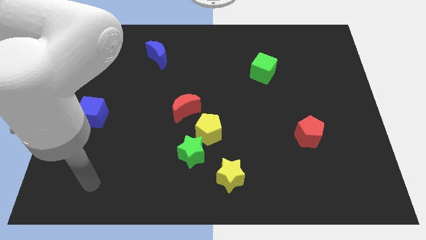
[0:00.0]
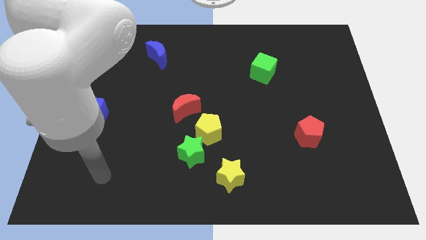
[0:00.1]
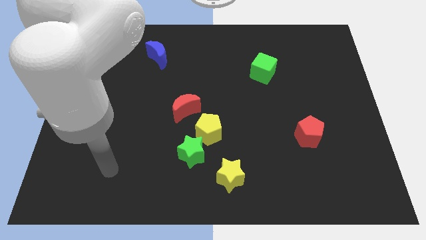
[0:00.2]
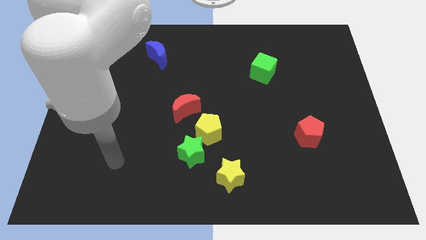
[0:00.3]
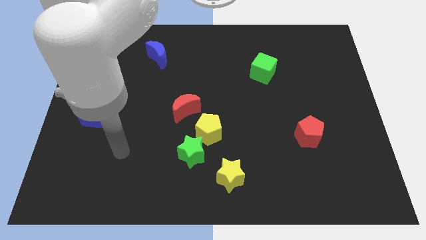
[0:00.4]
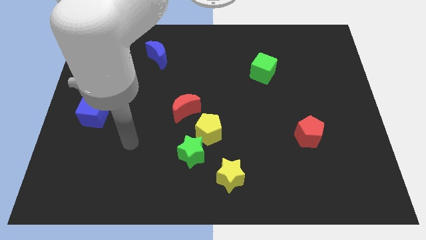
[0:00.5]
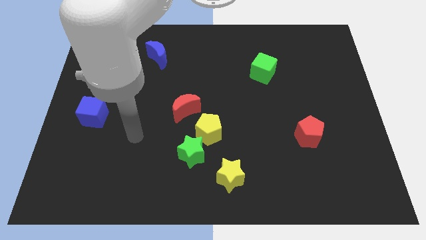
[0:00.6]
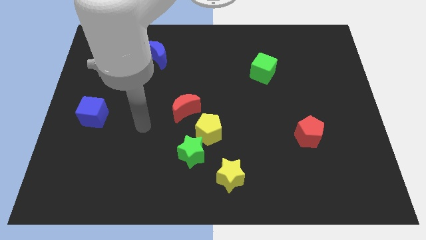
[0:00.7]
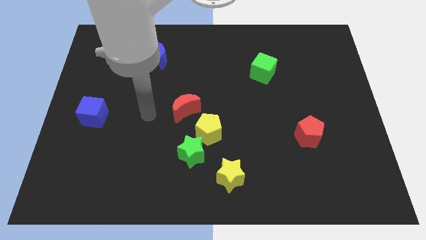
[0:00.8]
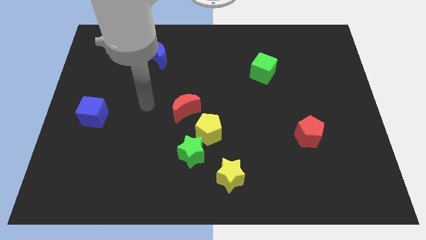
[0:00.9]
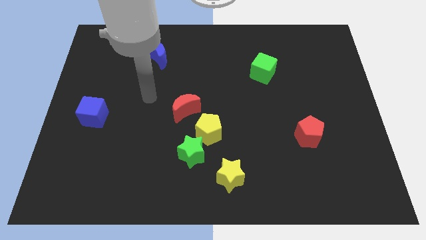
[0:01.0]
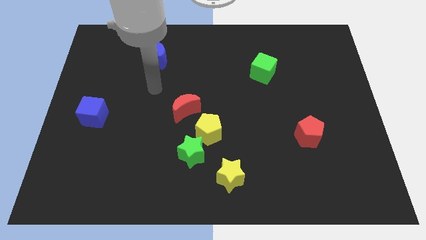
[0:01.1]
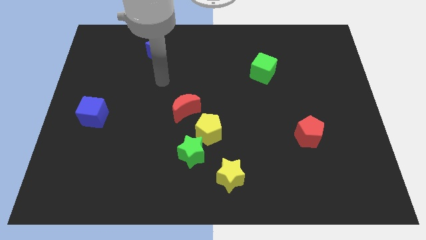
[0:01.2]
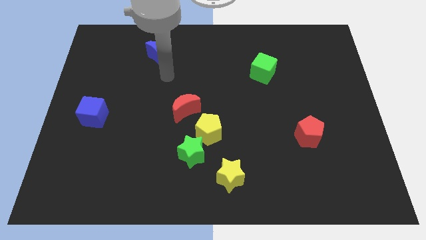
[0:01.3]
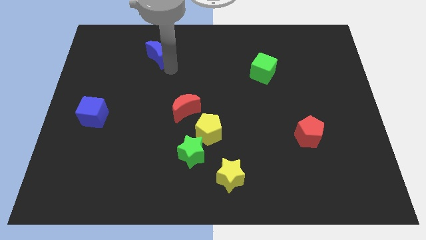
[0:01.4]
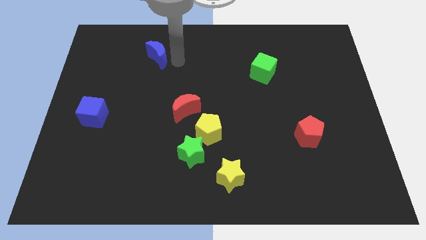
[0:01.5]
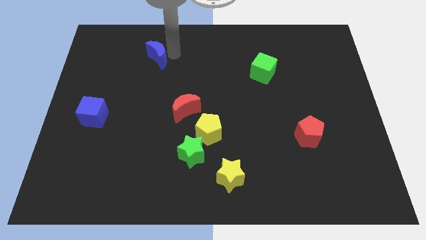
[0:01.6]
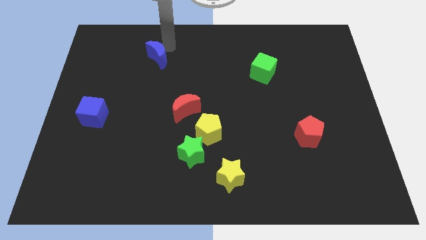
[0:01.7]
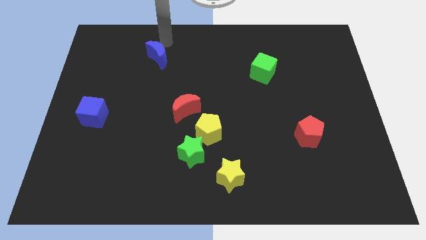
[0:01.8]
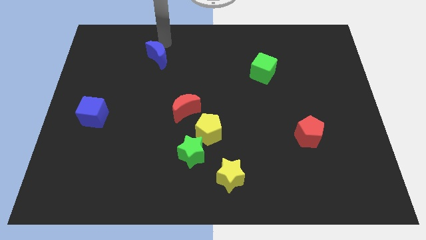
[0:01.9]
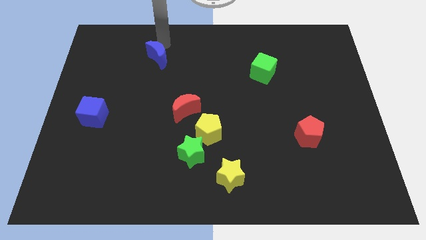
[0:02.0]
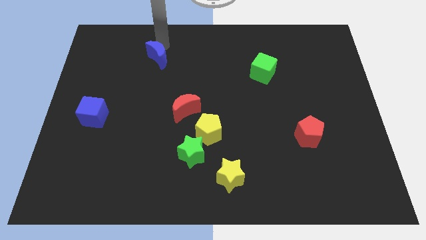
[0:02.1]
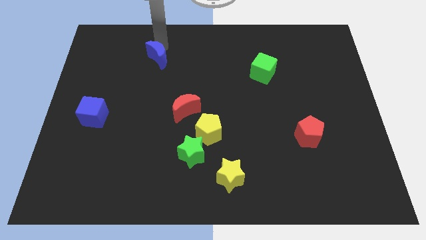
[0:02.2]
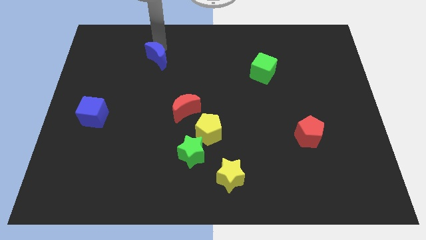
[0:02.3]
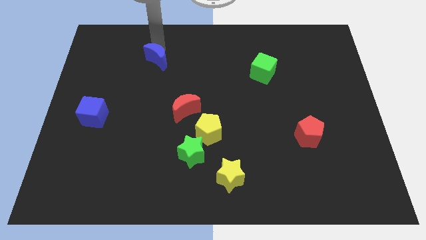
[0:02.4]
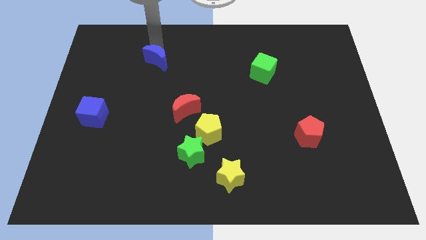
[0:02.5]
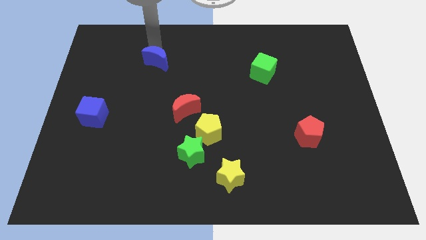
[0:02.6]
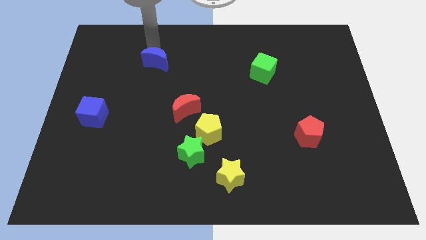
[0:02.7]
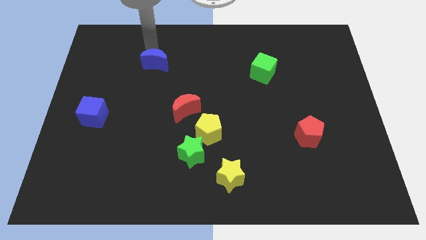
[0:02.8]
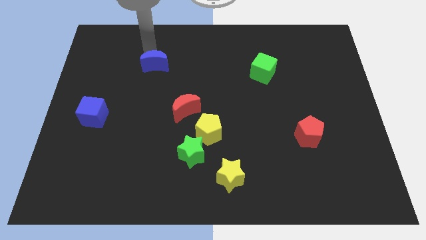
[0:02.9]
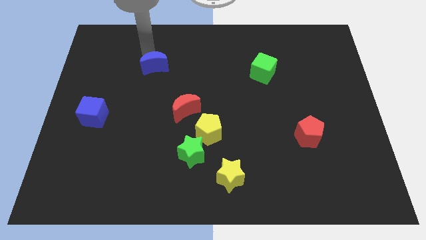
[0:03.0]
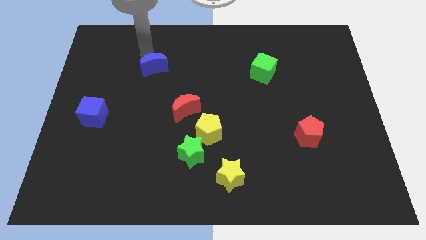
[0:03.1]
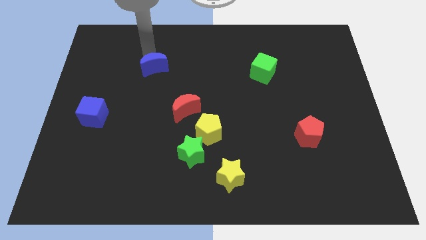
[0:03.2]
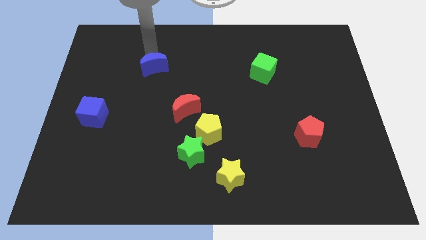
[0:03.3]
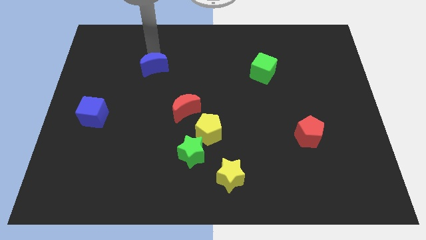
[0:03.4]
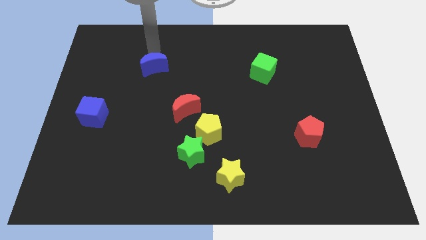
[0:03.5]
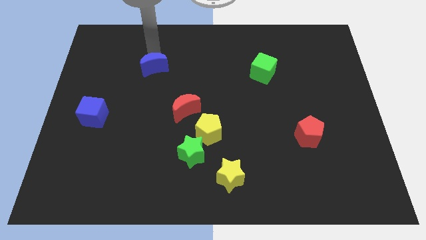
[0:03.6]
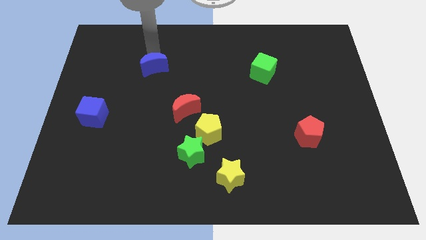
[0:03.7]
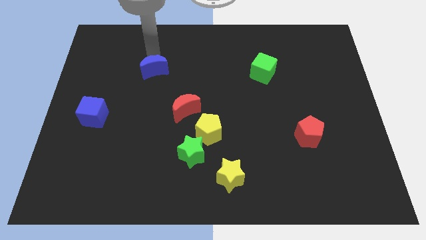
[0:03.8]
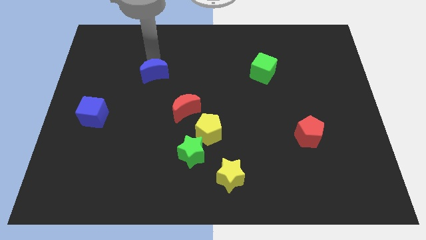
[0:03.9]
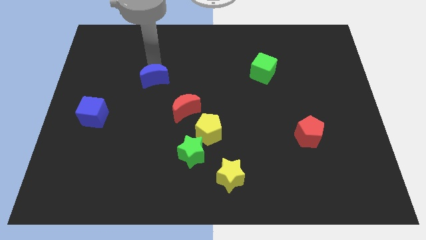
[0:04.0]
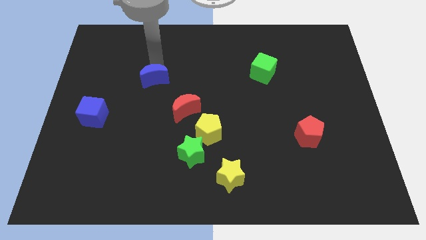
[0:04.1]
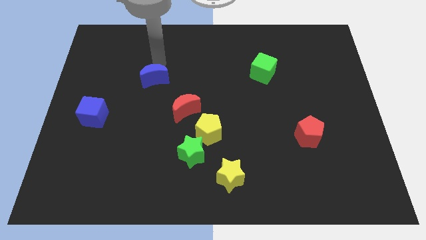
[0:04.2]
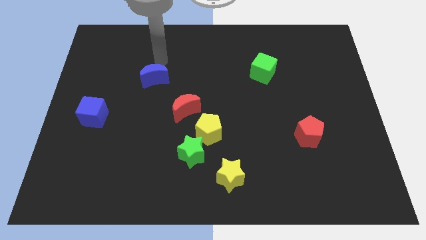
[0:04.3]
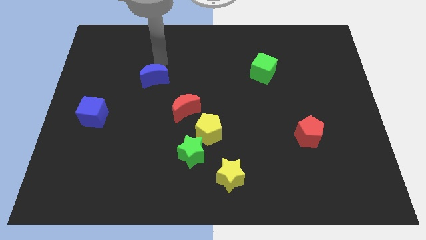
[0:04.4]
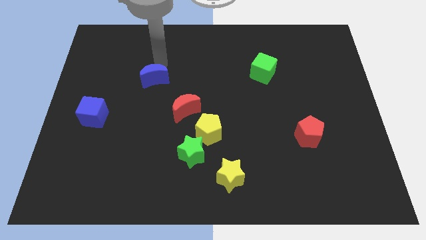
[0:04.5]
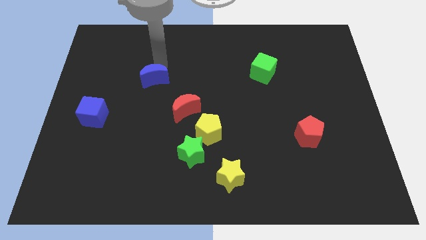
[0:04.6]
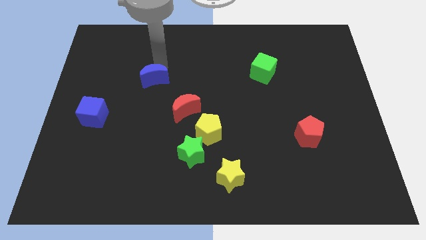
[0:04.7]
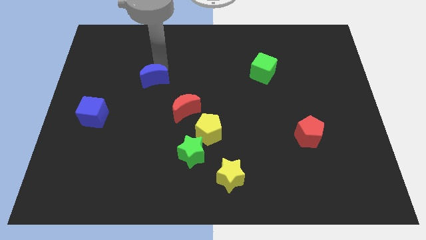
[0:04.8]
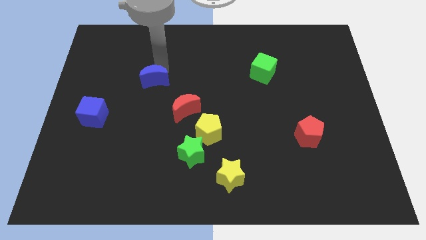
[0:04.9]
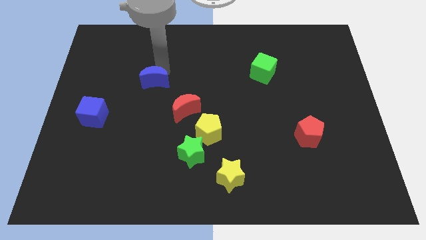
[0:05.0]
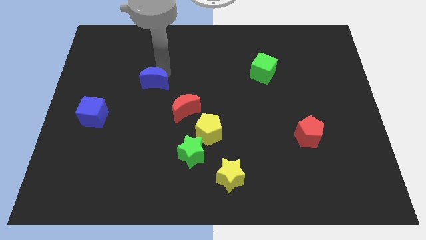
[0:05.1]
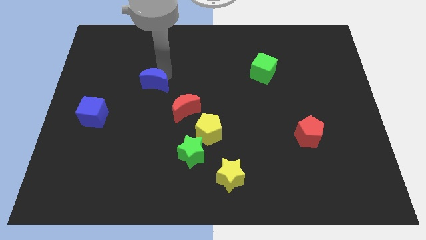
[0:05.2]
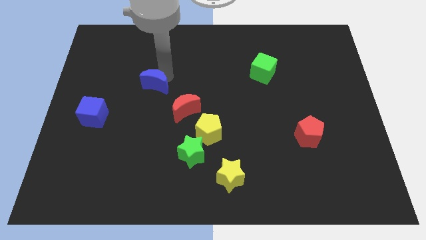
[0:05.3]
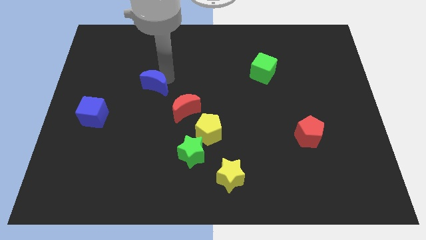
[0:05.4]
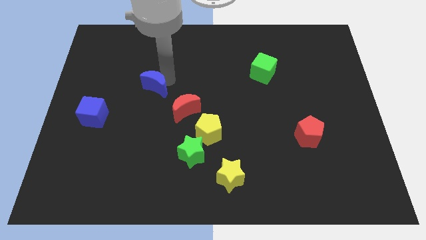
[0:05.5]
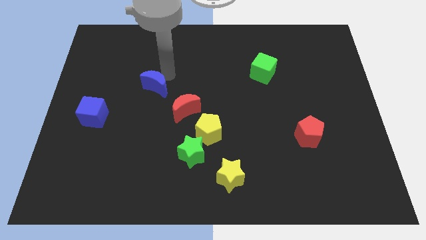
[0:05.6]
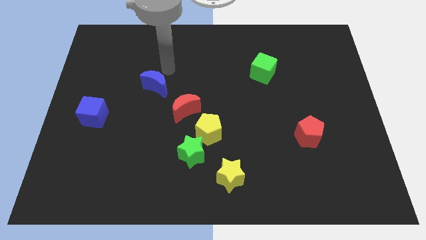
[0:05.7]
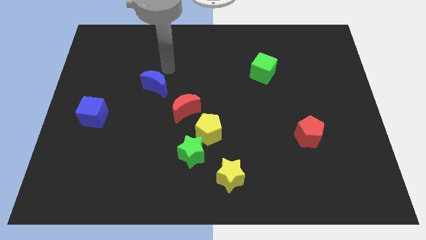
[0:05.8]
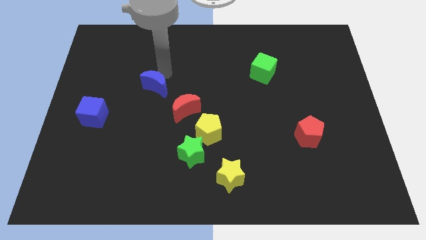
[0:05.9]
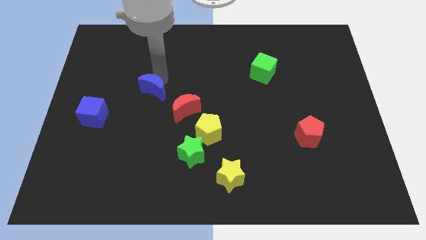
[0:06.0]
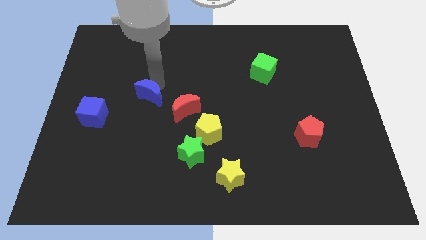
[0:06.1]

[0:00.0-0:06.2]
push the blue moon to the left of the red moon
